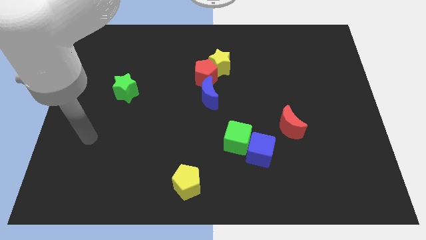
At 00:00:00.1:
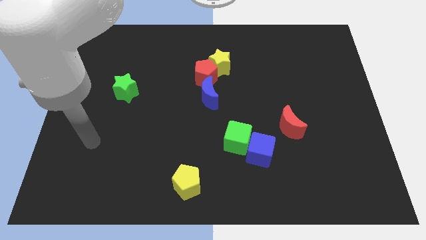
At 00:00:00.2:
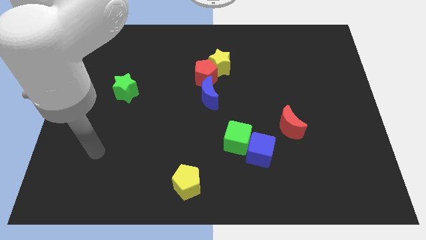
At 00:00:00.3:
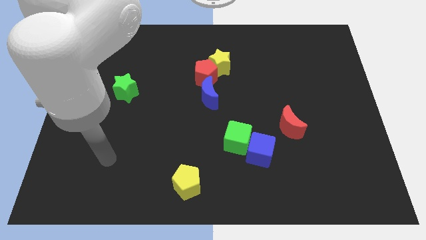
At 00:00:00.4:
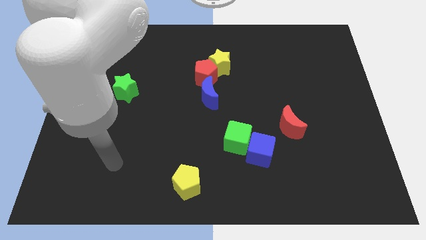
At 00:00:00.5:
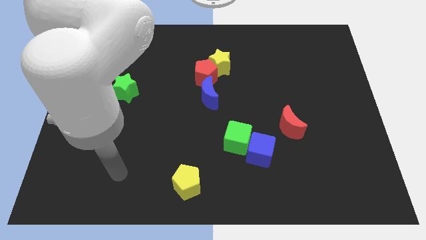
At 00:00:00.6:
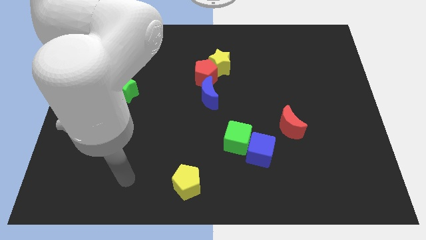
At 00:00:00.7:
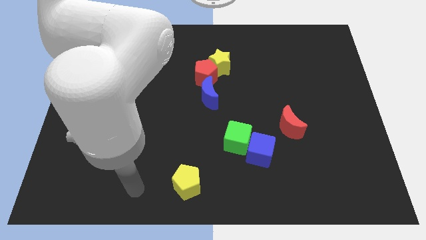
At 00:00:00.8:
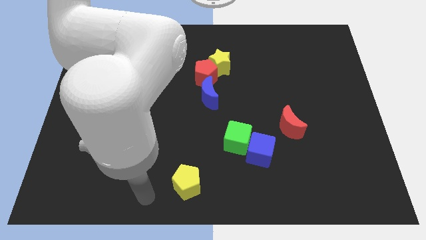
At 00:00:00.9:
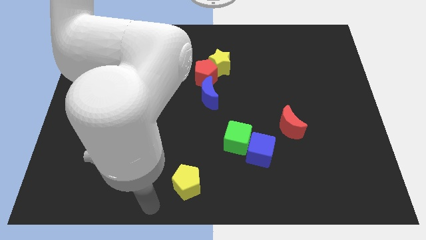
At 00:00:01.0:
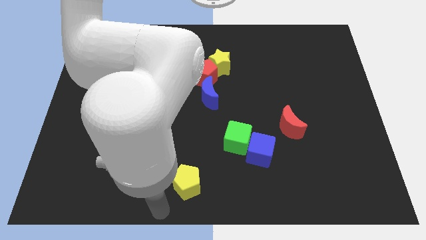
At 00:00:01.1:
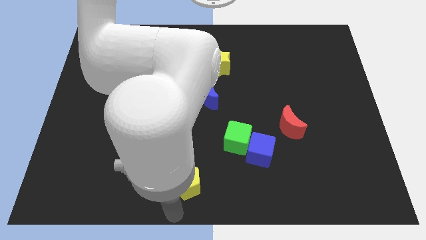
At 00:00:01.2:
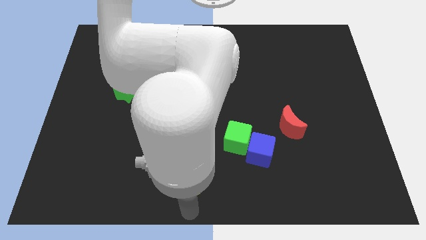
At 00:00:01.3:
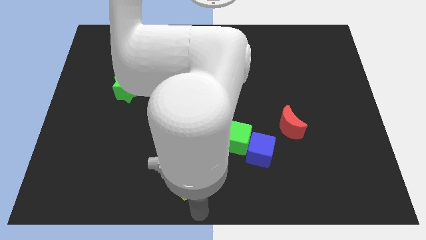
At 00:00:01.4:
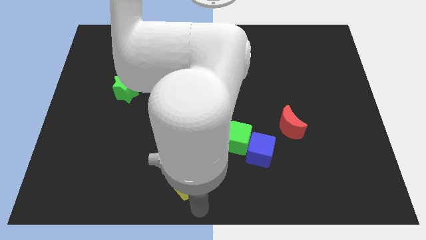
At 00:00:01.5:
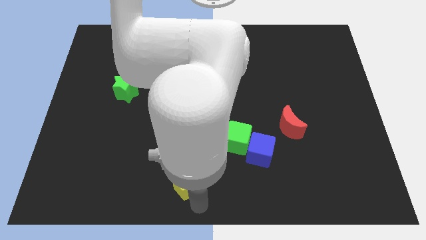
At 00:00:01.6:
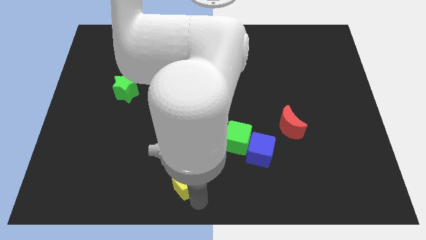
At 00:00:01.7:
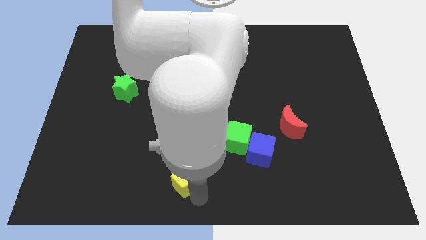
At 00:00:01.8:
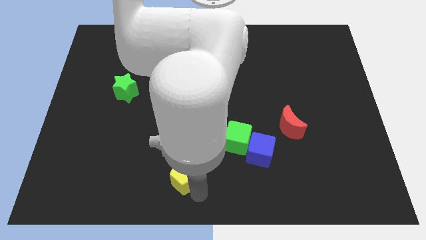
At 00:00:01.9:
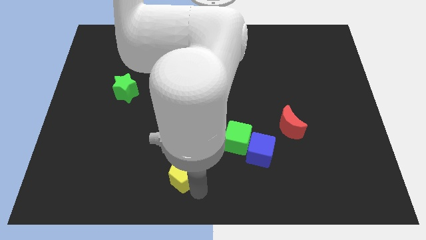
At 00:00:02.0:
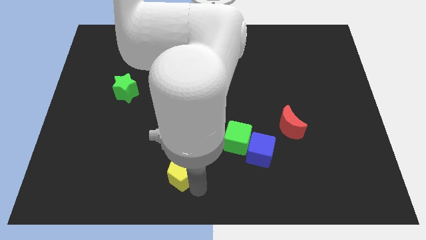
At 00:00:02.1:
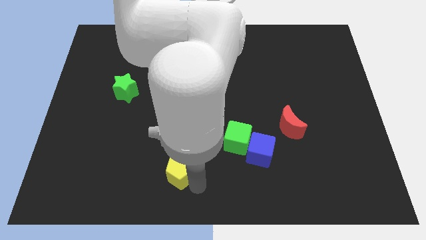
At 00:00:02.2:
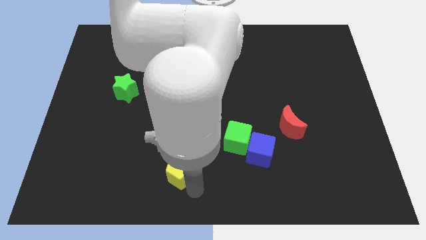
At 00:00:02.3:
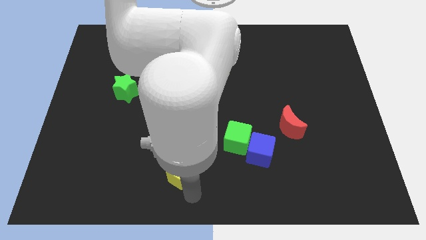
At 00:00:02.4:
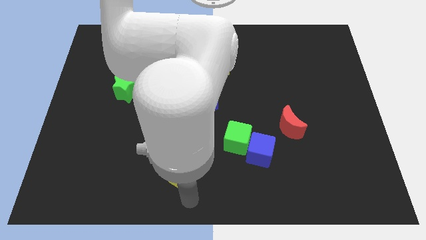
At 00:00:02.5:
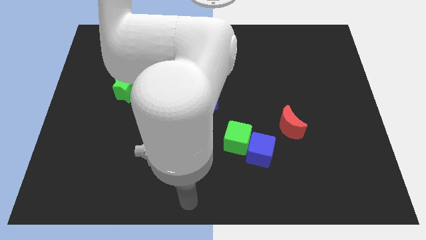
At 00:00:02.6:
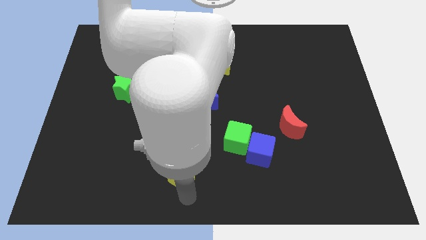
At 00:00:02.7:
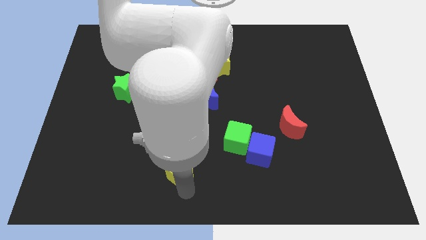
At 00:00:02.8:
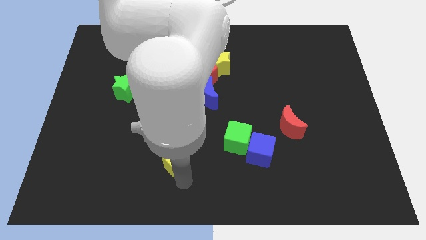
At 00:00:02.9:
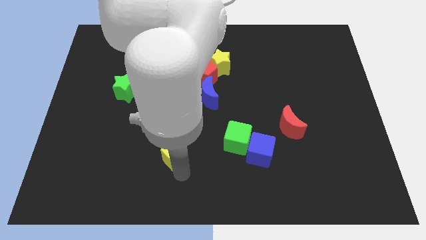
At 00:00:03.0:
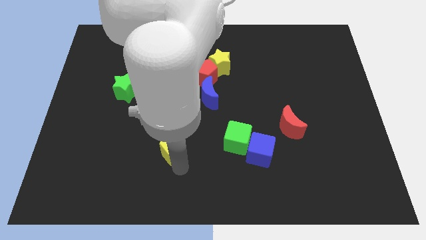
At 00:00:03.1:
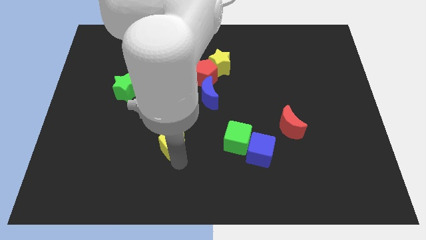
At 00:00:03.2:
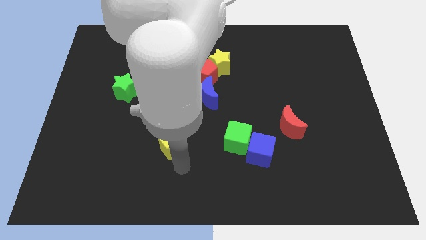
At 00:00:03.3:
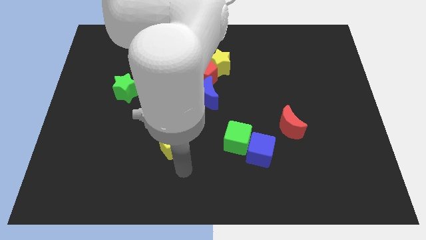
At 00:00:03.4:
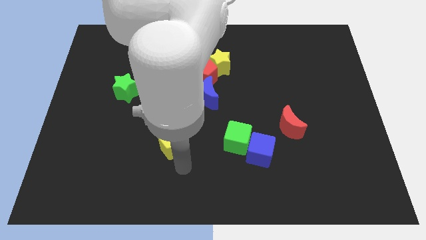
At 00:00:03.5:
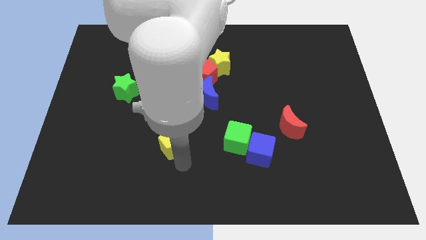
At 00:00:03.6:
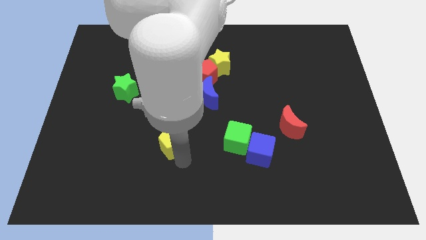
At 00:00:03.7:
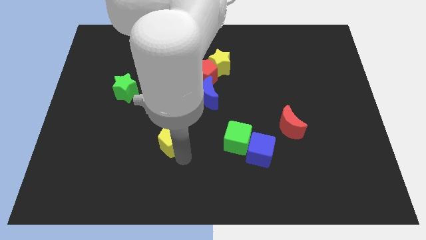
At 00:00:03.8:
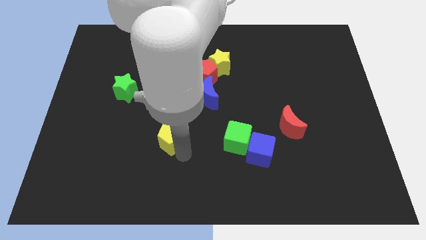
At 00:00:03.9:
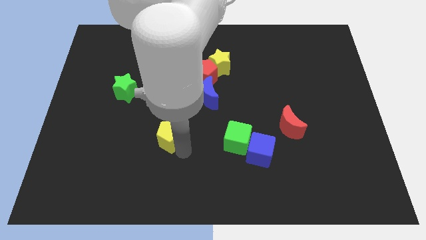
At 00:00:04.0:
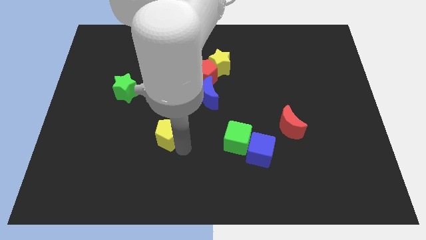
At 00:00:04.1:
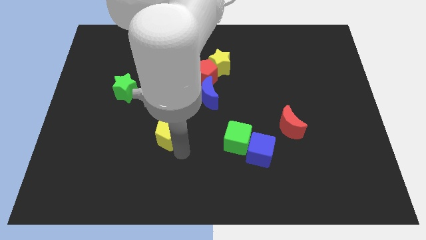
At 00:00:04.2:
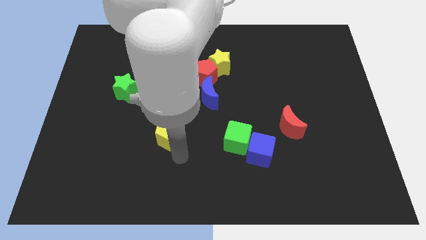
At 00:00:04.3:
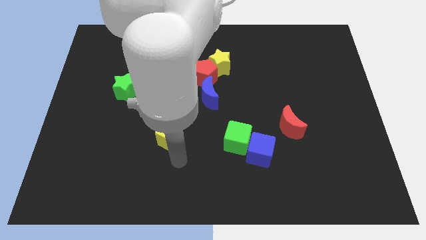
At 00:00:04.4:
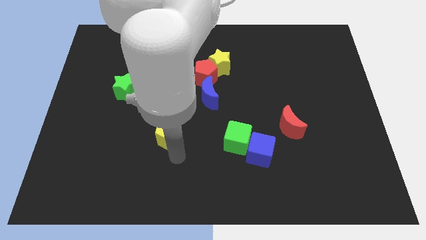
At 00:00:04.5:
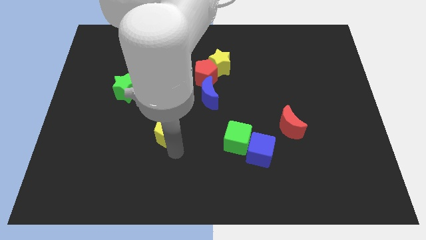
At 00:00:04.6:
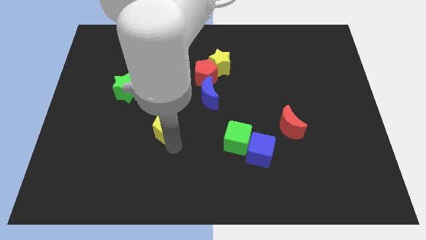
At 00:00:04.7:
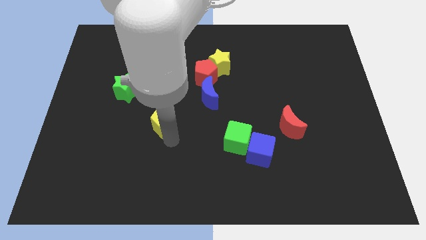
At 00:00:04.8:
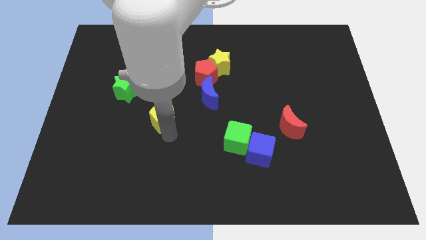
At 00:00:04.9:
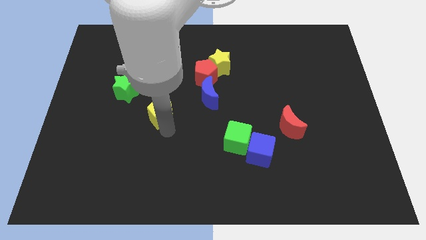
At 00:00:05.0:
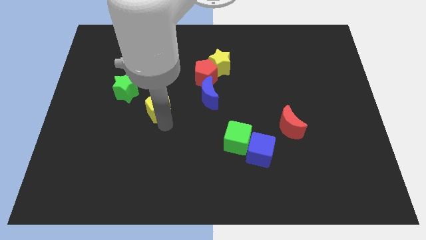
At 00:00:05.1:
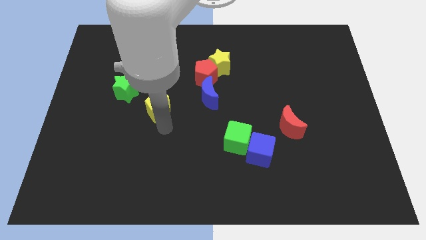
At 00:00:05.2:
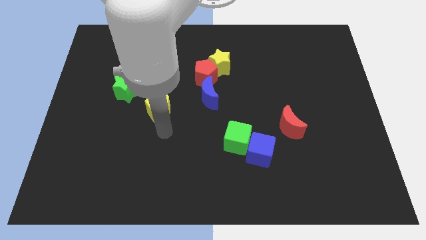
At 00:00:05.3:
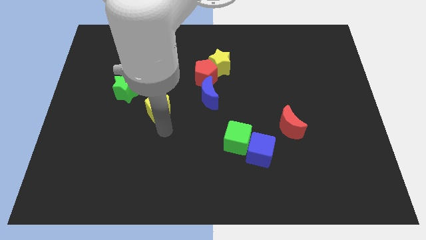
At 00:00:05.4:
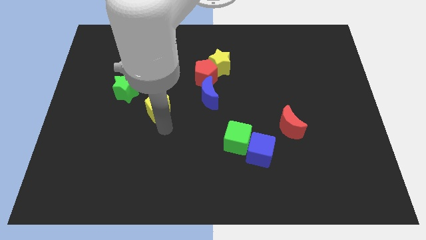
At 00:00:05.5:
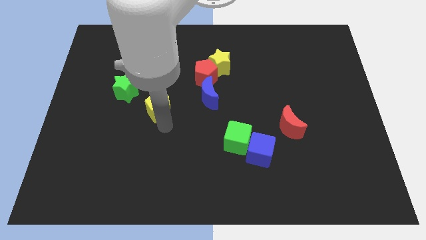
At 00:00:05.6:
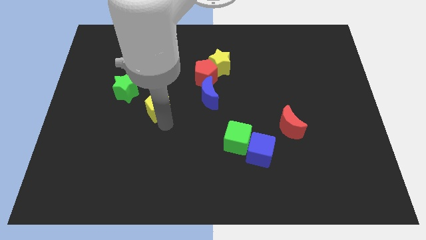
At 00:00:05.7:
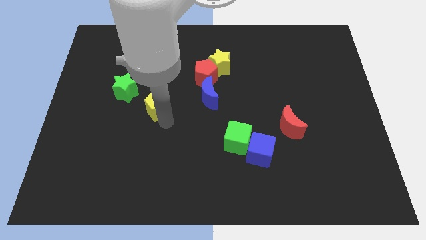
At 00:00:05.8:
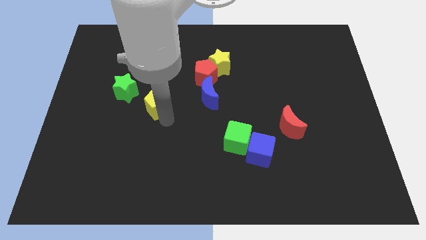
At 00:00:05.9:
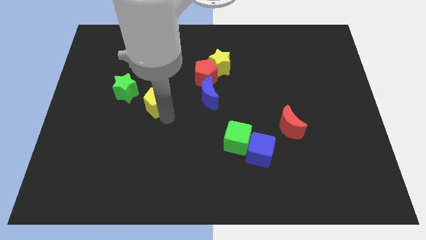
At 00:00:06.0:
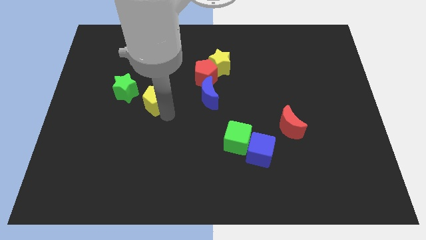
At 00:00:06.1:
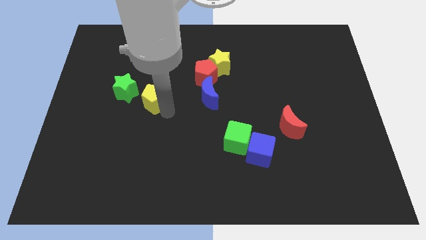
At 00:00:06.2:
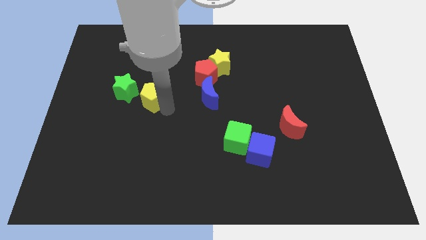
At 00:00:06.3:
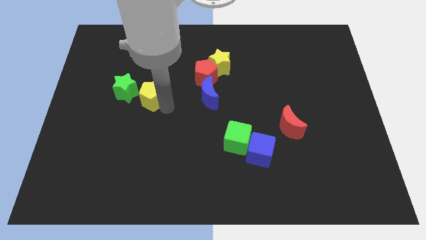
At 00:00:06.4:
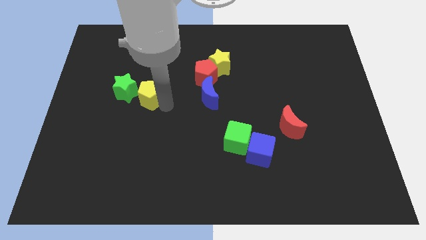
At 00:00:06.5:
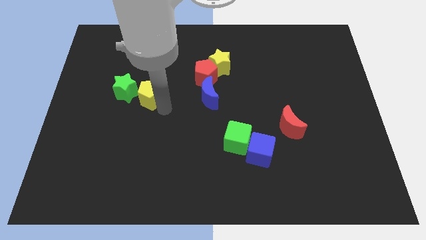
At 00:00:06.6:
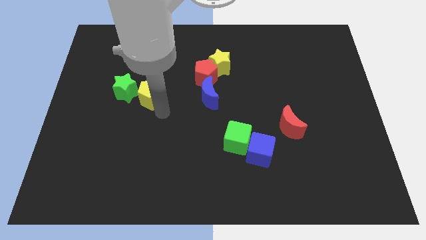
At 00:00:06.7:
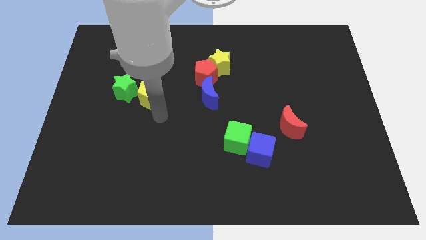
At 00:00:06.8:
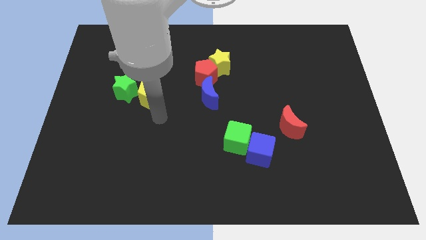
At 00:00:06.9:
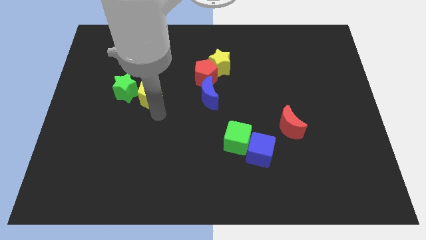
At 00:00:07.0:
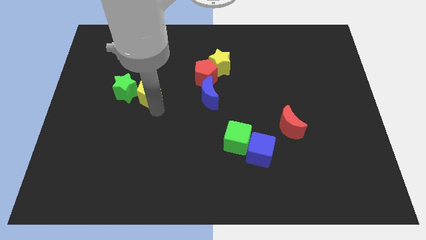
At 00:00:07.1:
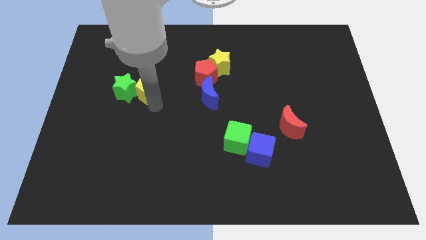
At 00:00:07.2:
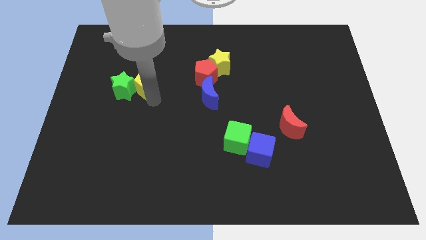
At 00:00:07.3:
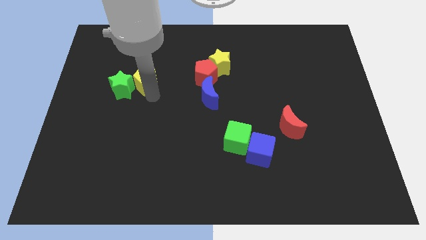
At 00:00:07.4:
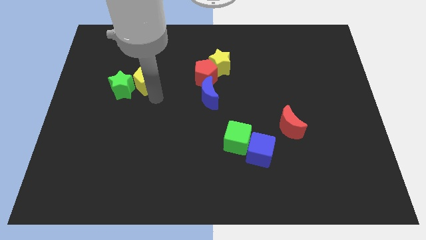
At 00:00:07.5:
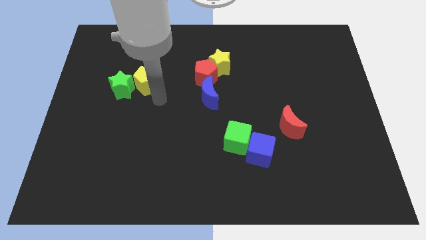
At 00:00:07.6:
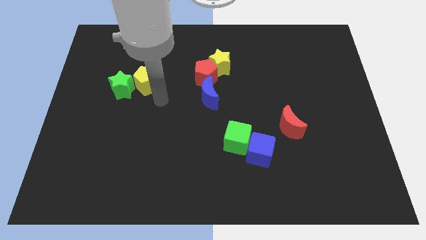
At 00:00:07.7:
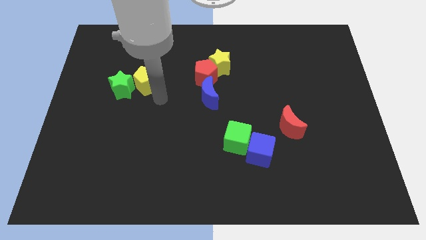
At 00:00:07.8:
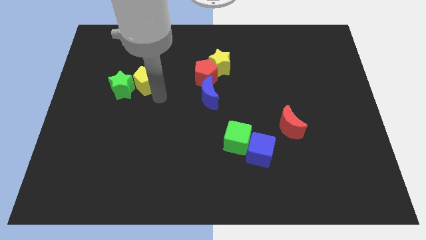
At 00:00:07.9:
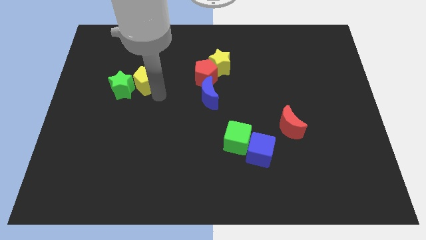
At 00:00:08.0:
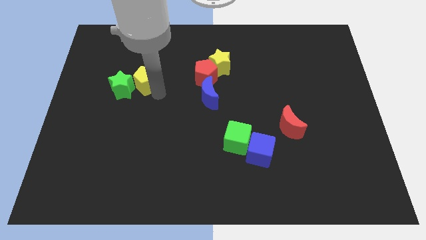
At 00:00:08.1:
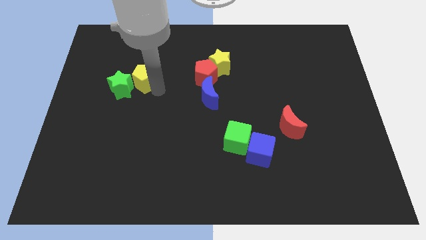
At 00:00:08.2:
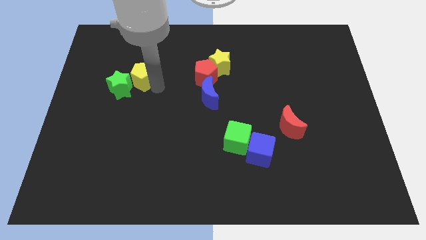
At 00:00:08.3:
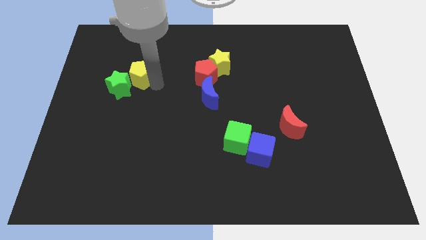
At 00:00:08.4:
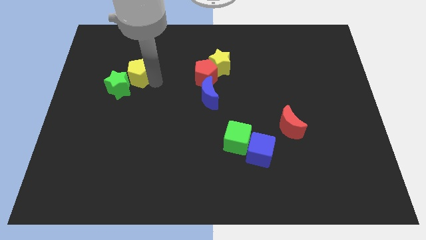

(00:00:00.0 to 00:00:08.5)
push the yellow pentagon to the top of the green star
